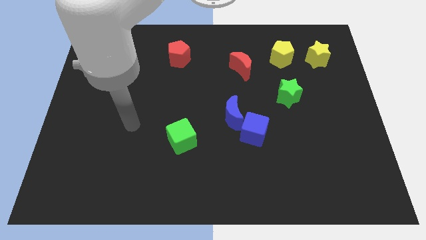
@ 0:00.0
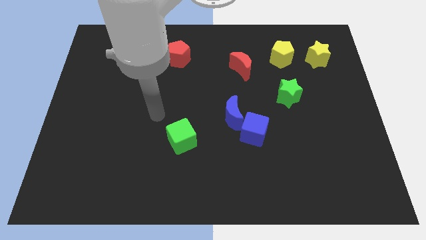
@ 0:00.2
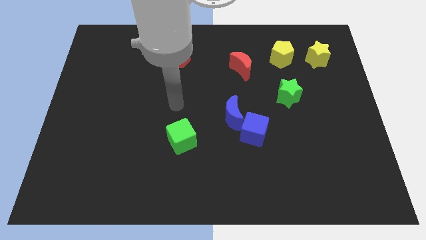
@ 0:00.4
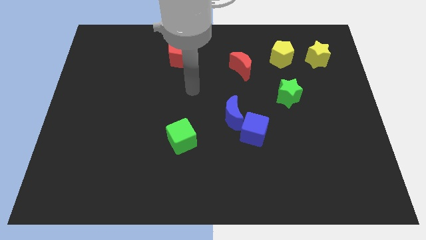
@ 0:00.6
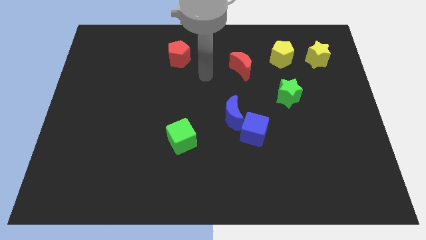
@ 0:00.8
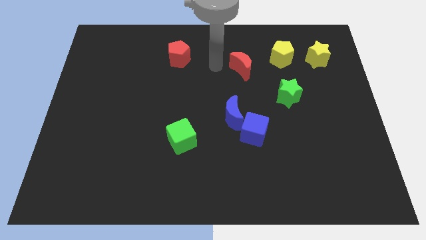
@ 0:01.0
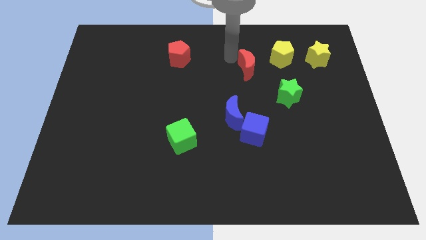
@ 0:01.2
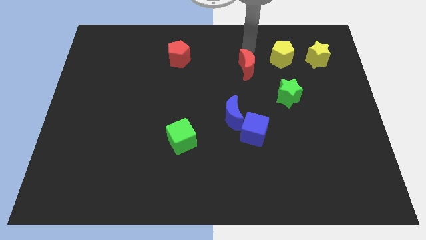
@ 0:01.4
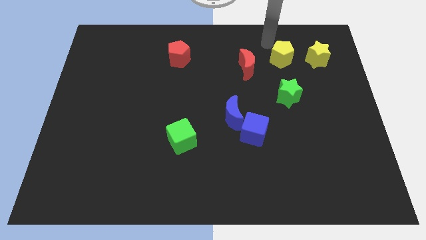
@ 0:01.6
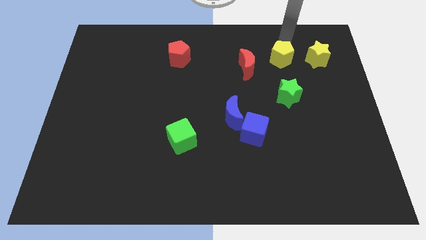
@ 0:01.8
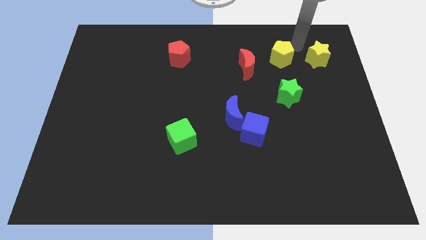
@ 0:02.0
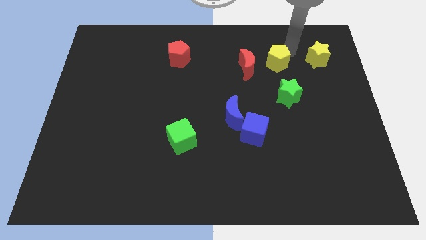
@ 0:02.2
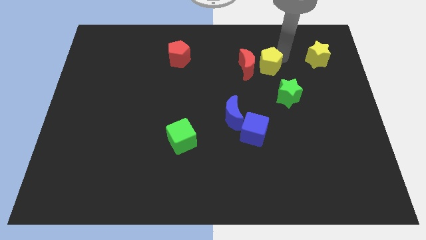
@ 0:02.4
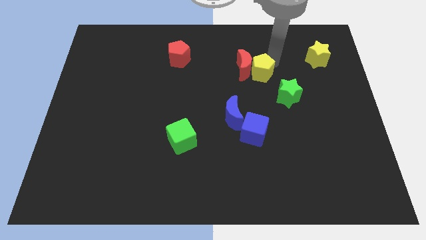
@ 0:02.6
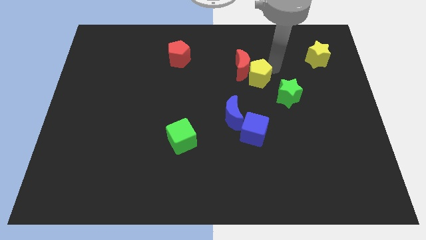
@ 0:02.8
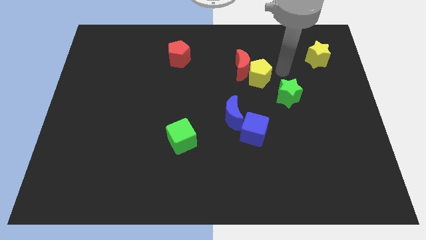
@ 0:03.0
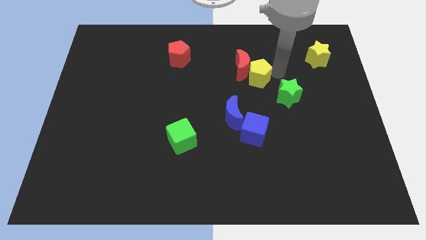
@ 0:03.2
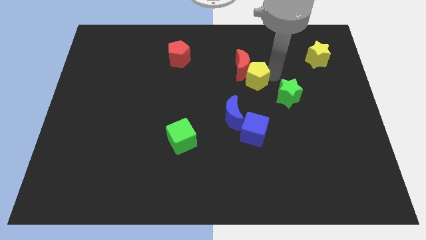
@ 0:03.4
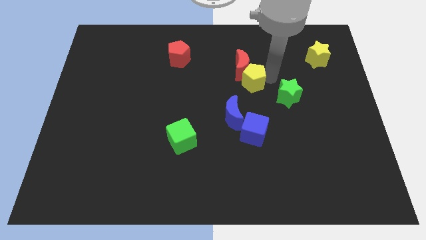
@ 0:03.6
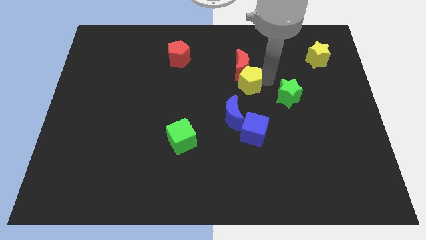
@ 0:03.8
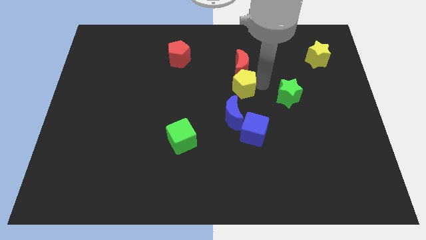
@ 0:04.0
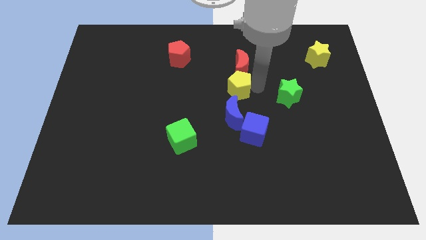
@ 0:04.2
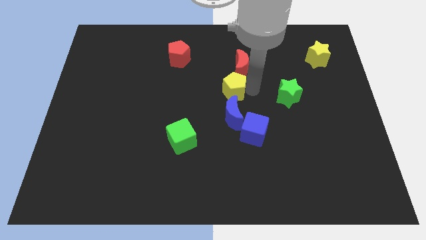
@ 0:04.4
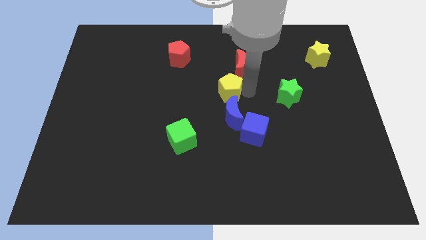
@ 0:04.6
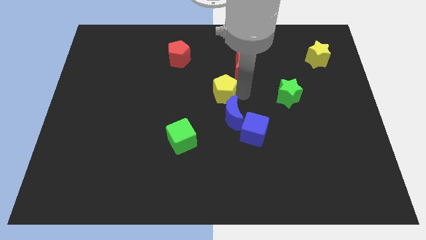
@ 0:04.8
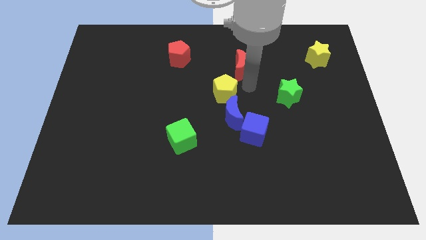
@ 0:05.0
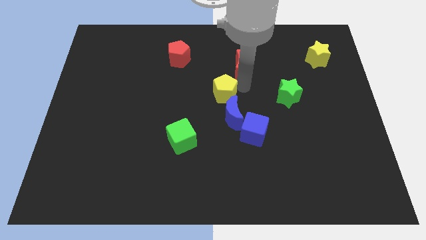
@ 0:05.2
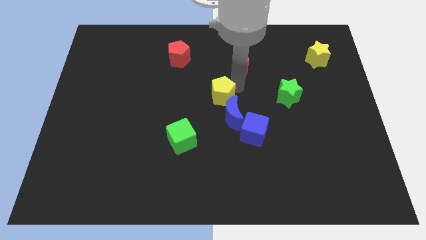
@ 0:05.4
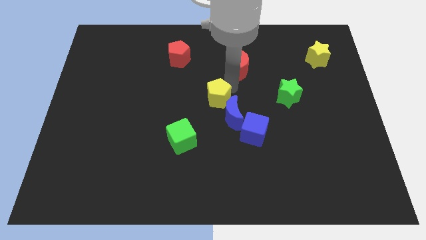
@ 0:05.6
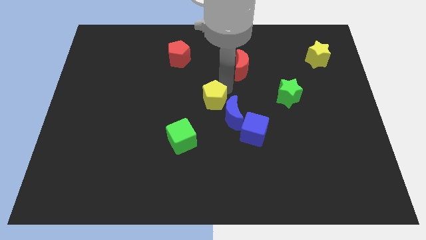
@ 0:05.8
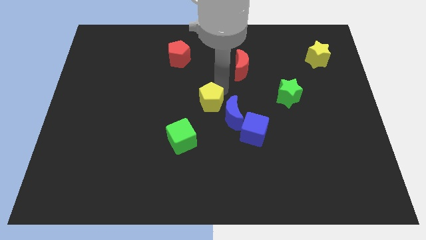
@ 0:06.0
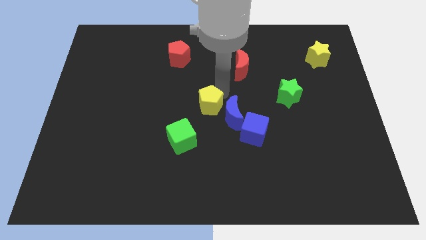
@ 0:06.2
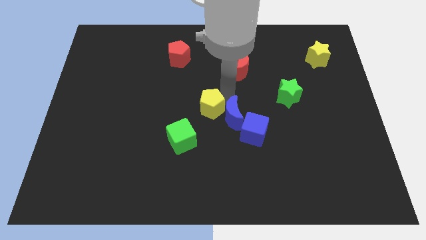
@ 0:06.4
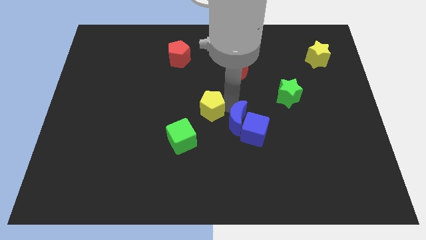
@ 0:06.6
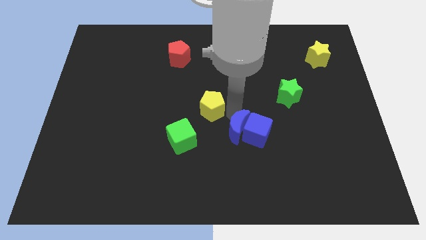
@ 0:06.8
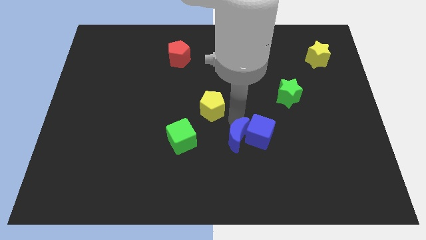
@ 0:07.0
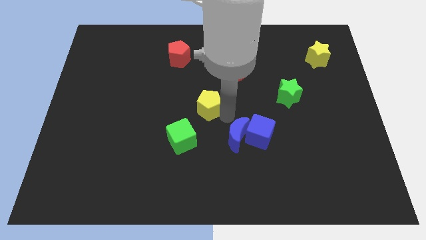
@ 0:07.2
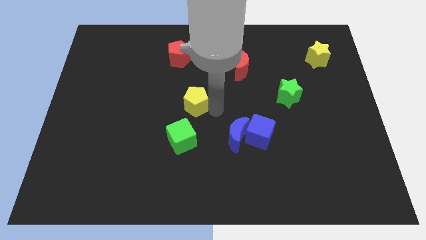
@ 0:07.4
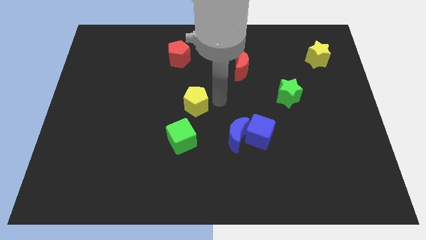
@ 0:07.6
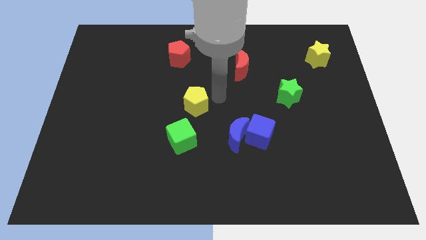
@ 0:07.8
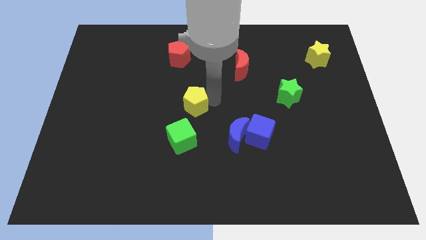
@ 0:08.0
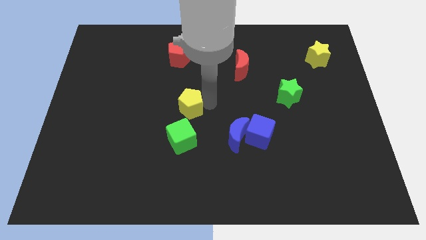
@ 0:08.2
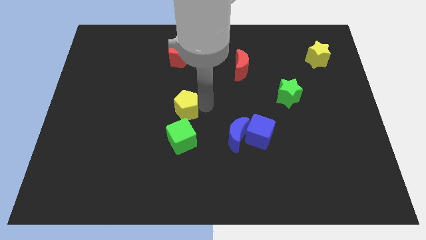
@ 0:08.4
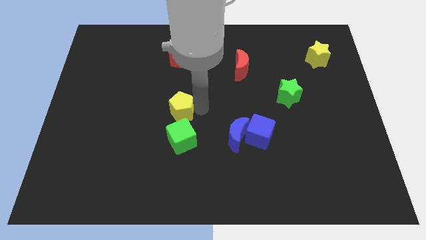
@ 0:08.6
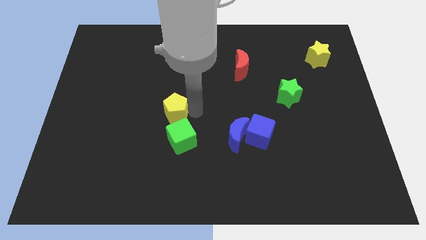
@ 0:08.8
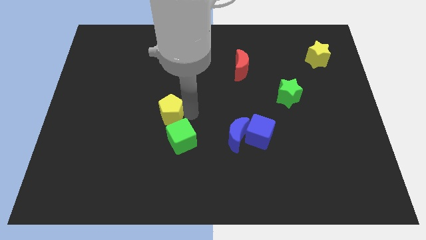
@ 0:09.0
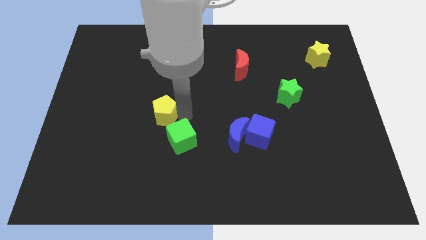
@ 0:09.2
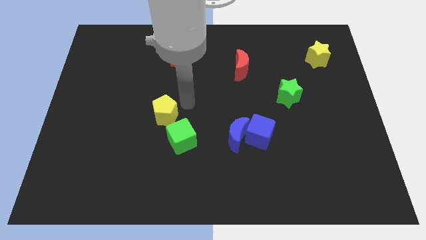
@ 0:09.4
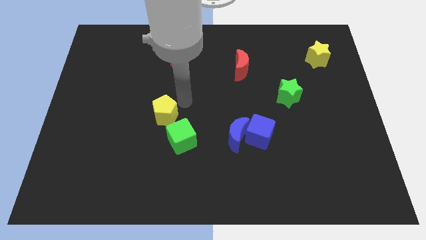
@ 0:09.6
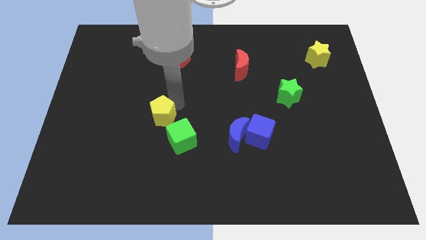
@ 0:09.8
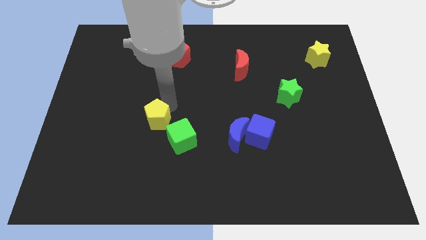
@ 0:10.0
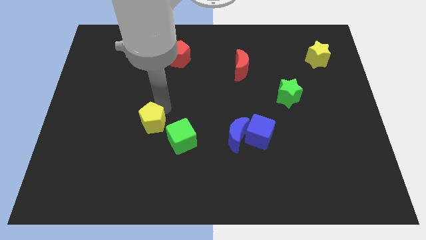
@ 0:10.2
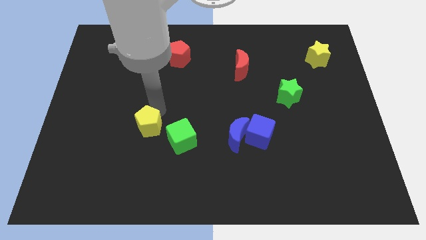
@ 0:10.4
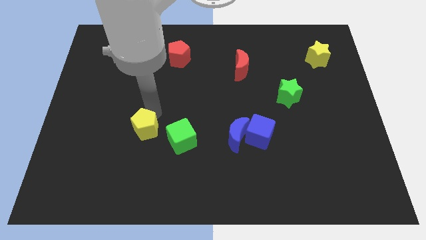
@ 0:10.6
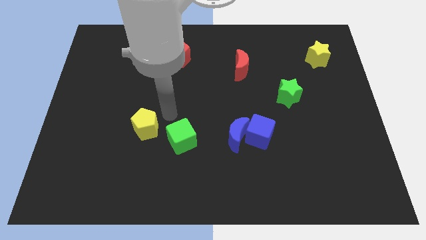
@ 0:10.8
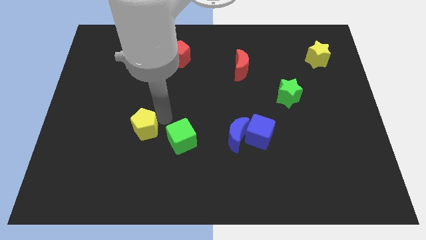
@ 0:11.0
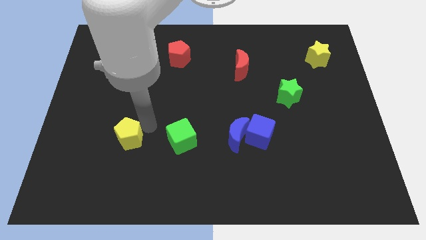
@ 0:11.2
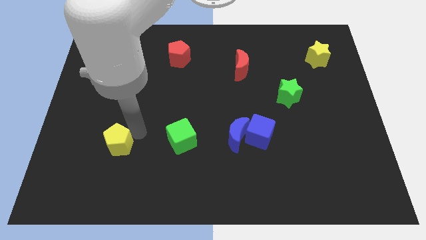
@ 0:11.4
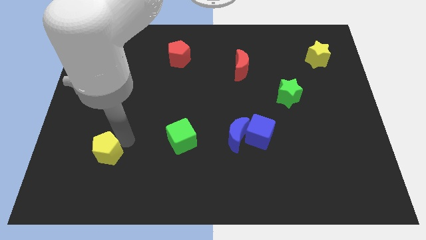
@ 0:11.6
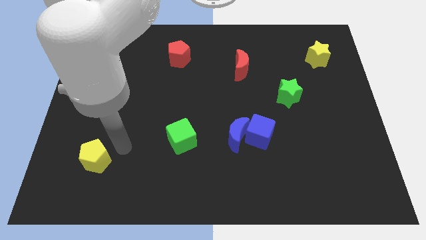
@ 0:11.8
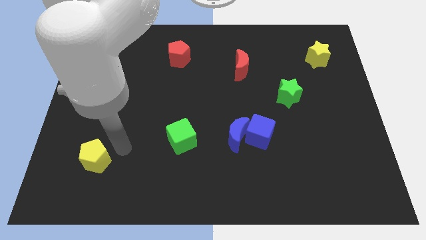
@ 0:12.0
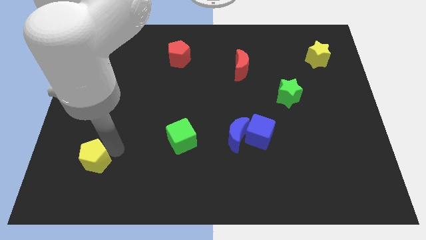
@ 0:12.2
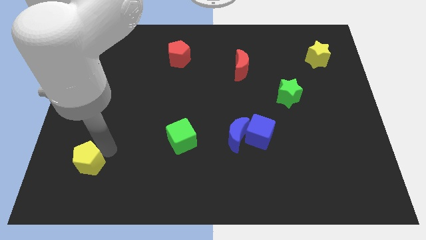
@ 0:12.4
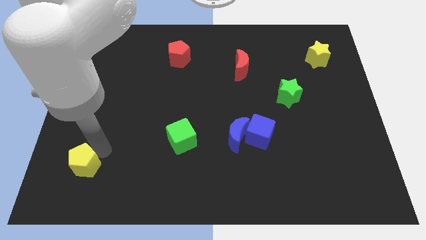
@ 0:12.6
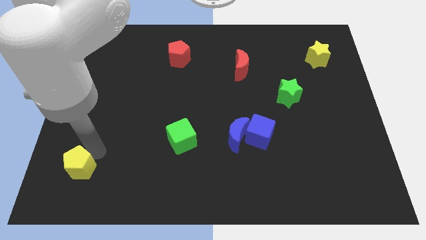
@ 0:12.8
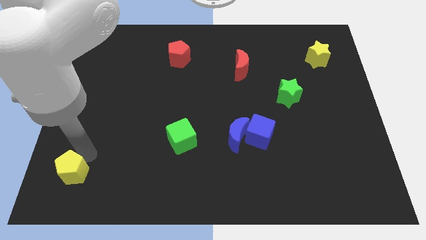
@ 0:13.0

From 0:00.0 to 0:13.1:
put the yellow pentagon to the lower left corner

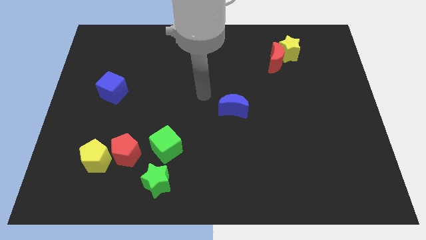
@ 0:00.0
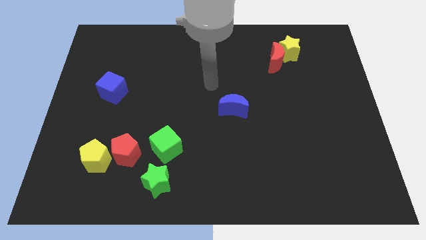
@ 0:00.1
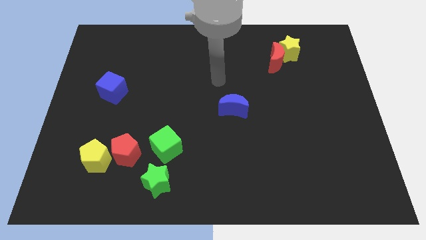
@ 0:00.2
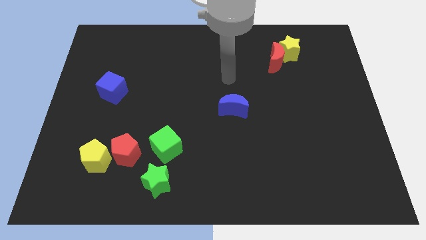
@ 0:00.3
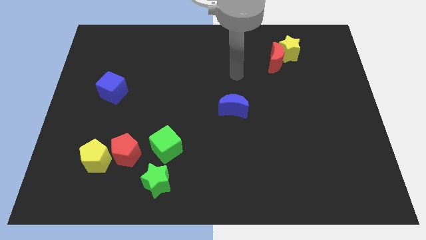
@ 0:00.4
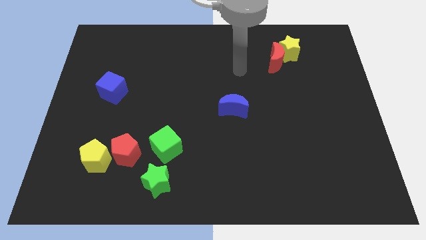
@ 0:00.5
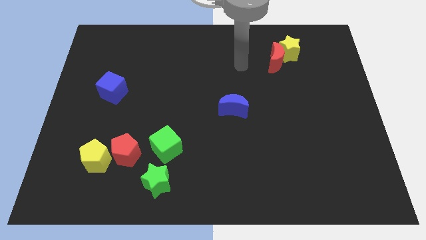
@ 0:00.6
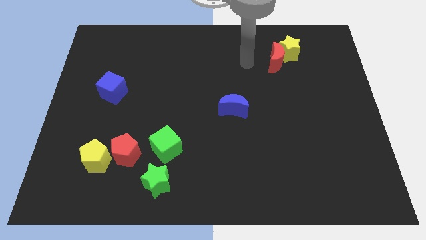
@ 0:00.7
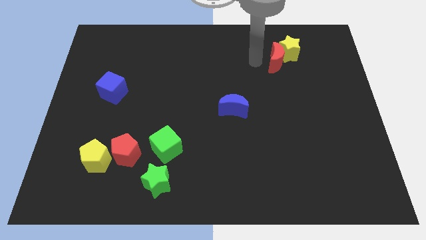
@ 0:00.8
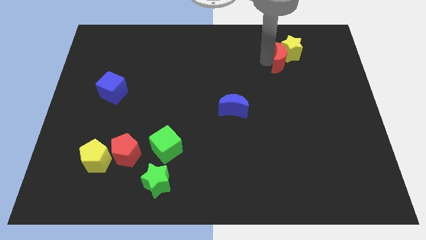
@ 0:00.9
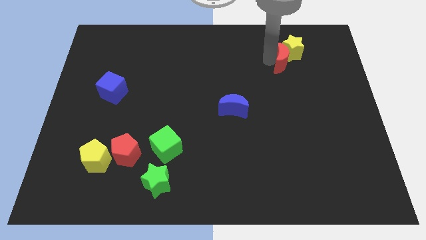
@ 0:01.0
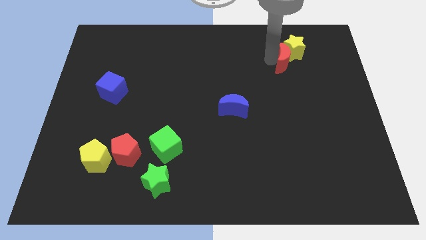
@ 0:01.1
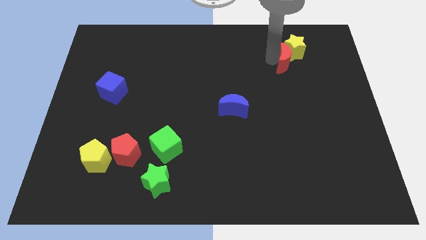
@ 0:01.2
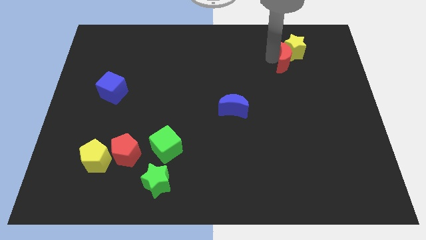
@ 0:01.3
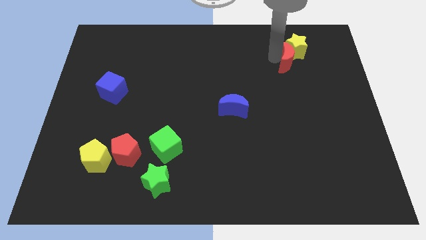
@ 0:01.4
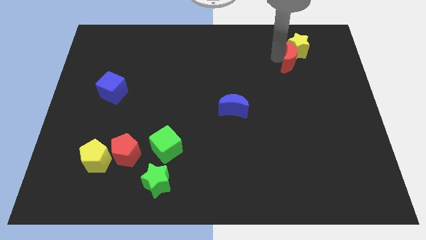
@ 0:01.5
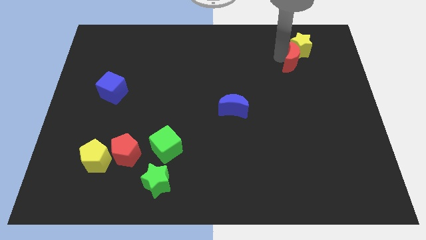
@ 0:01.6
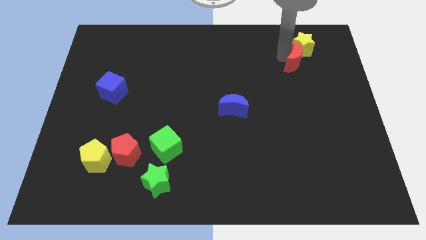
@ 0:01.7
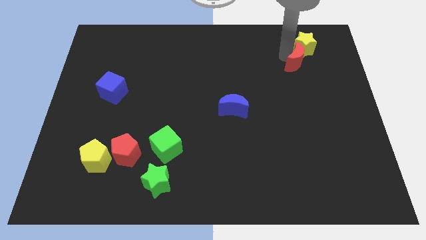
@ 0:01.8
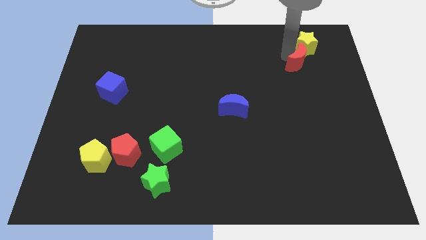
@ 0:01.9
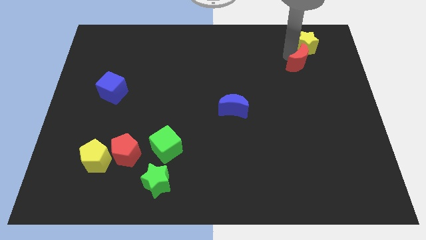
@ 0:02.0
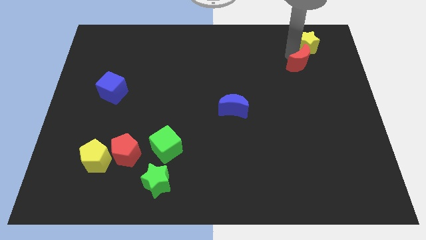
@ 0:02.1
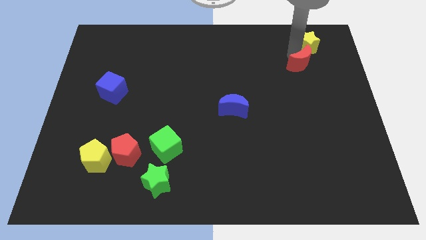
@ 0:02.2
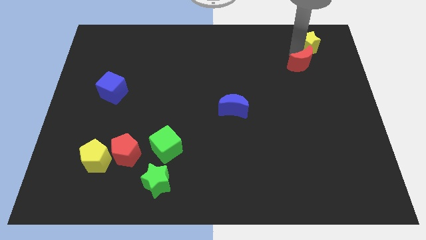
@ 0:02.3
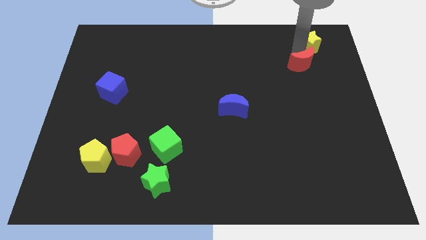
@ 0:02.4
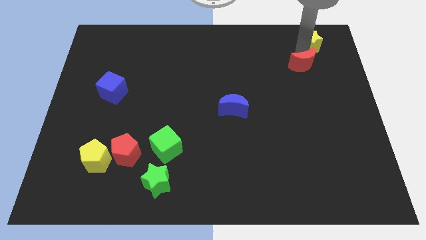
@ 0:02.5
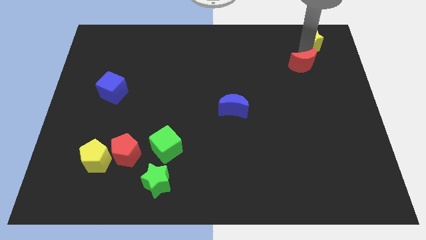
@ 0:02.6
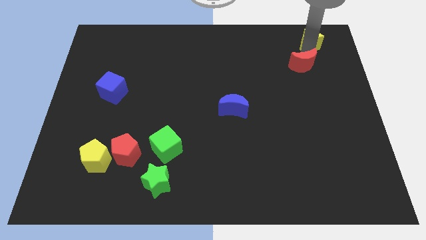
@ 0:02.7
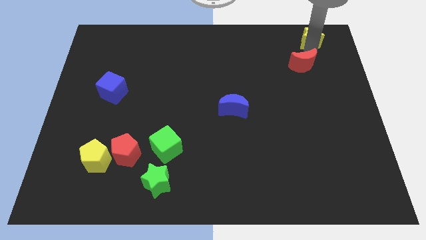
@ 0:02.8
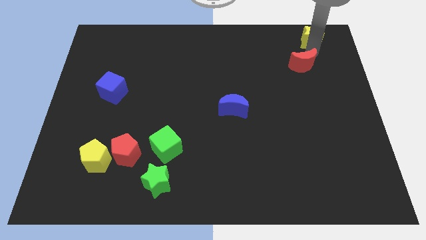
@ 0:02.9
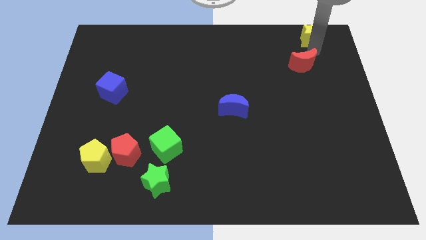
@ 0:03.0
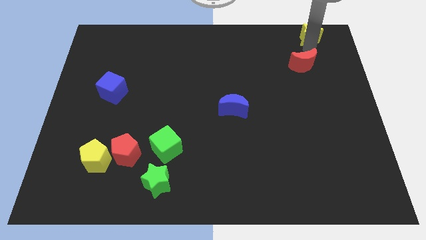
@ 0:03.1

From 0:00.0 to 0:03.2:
put the yellow star to the upper right corner
